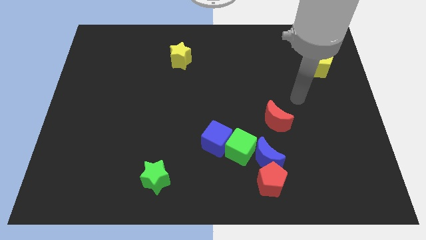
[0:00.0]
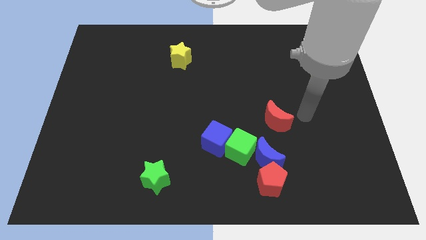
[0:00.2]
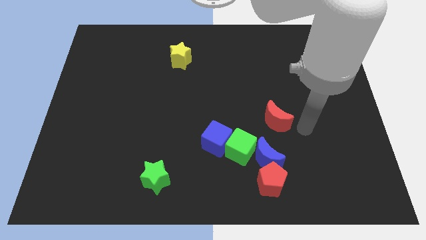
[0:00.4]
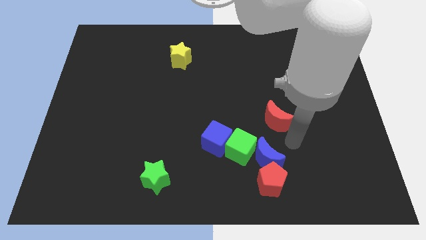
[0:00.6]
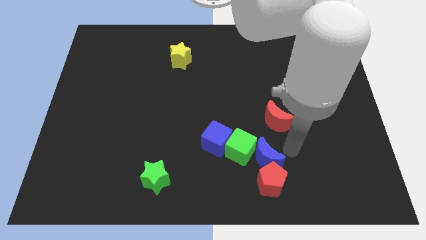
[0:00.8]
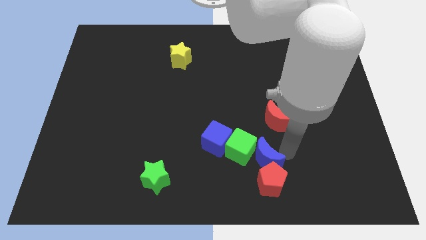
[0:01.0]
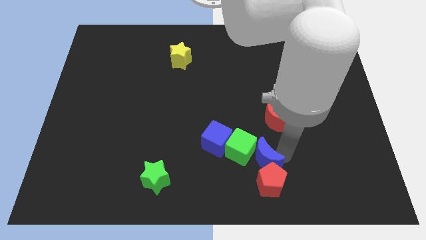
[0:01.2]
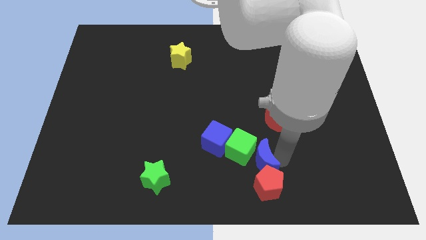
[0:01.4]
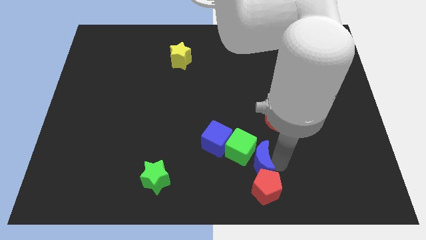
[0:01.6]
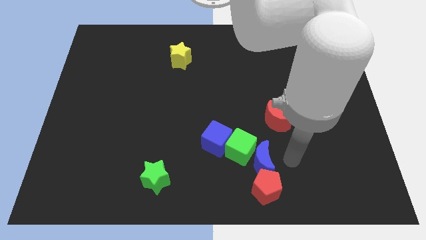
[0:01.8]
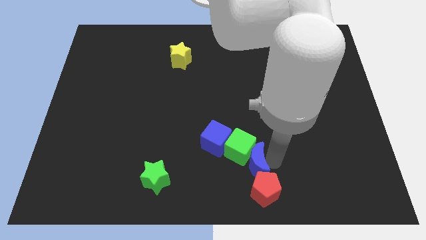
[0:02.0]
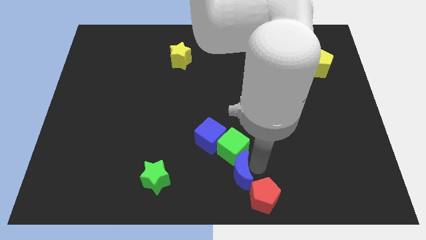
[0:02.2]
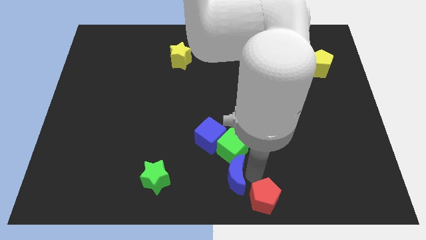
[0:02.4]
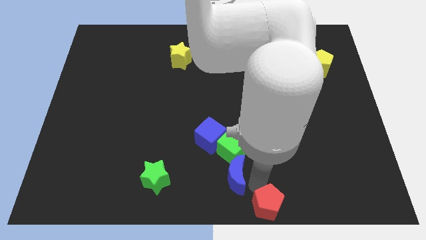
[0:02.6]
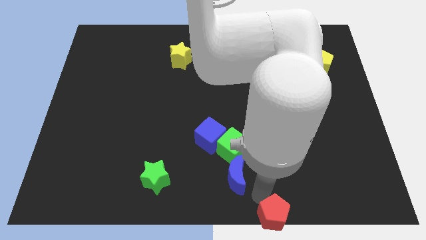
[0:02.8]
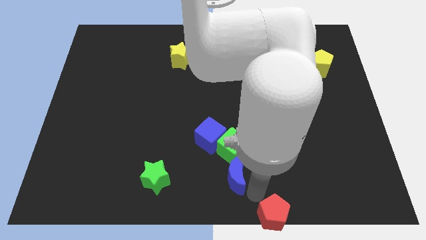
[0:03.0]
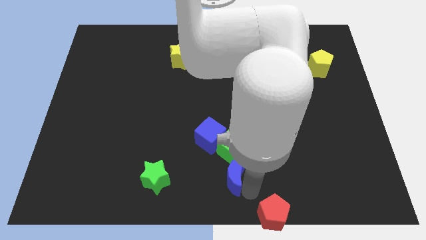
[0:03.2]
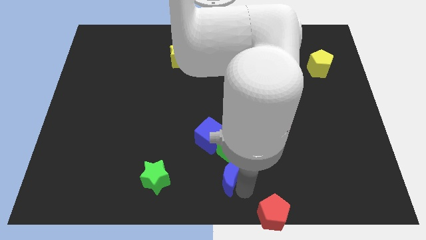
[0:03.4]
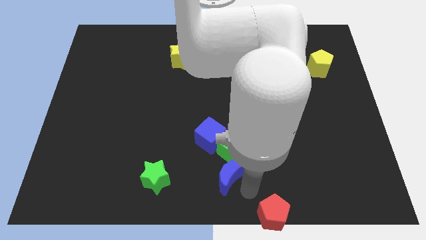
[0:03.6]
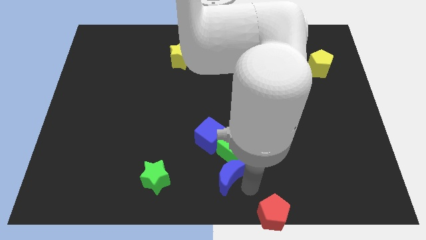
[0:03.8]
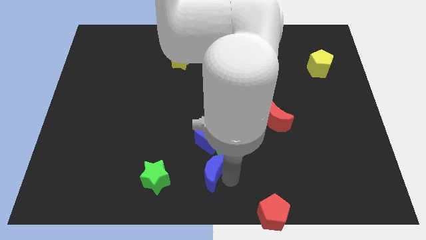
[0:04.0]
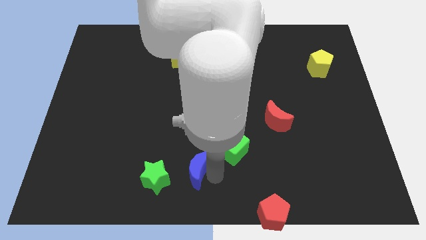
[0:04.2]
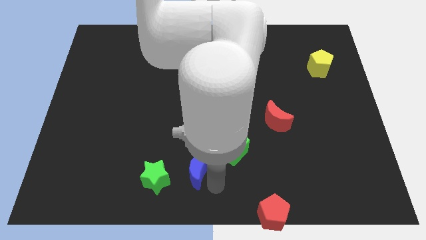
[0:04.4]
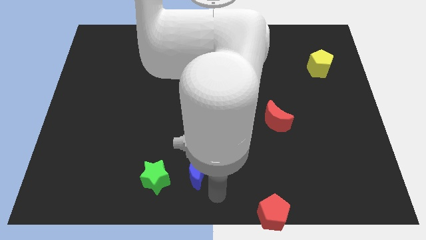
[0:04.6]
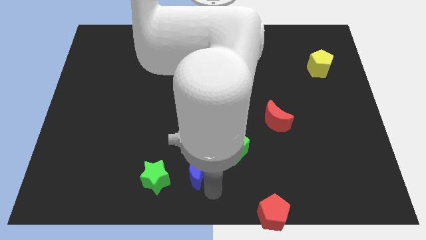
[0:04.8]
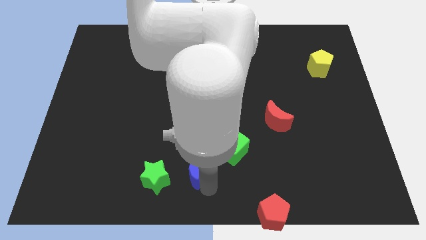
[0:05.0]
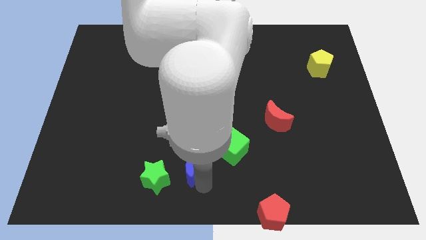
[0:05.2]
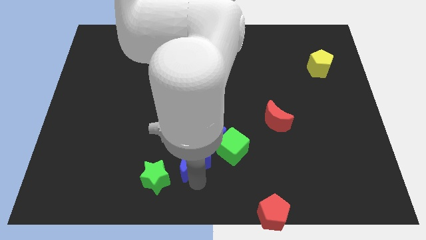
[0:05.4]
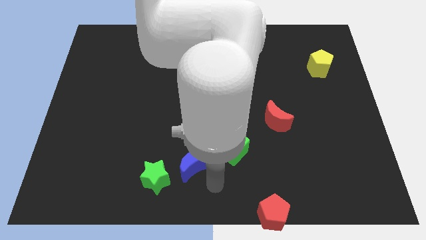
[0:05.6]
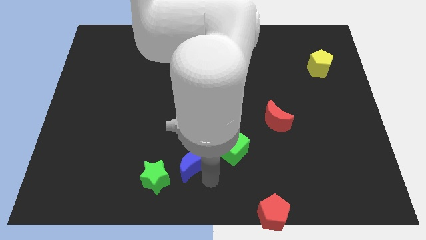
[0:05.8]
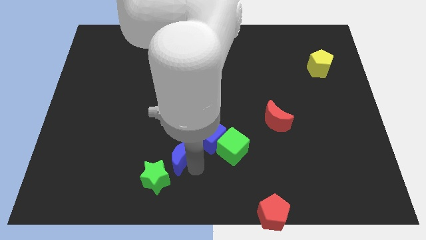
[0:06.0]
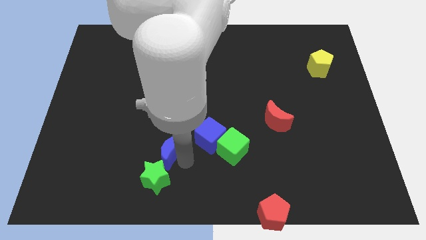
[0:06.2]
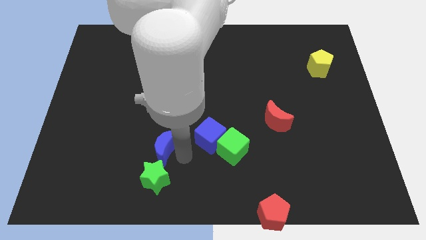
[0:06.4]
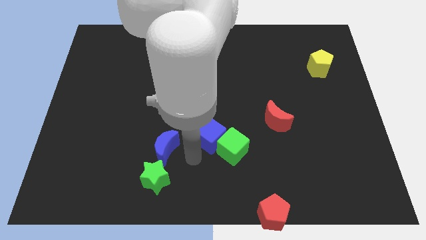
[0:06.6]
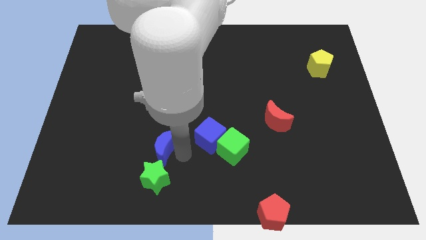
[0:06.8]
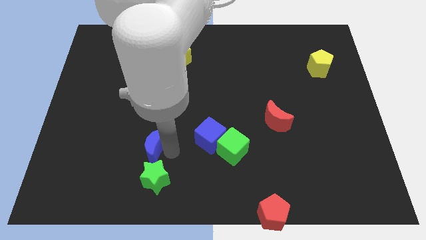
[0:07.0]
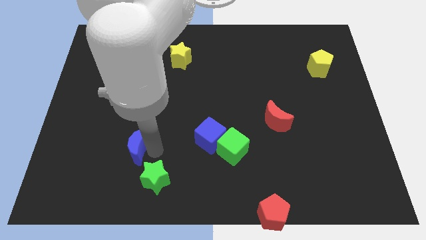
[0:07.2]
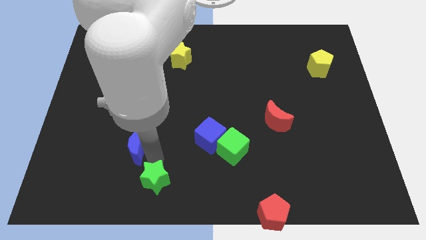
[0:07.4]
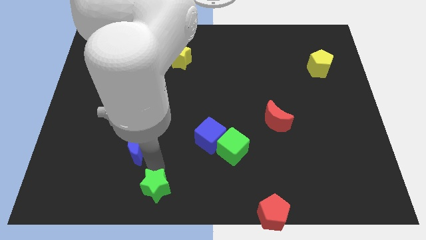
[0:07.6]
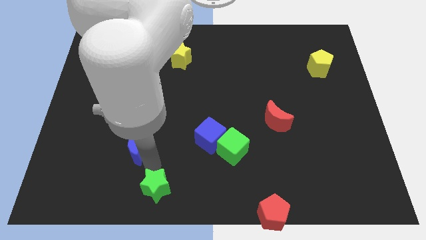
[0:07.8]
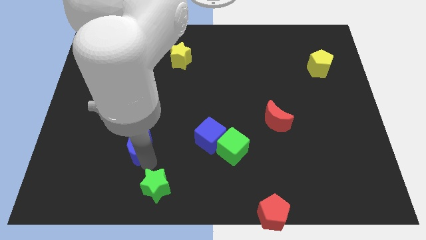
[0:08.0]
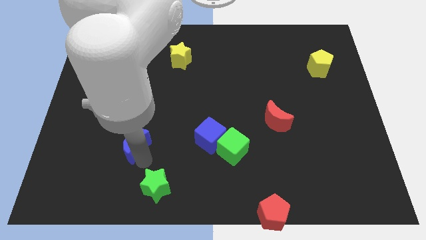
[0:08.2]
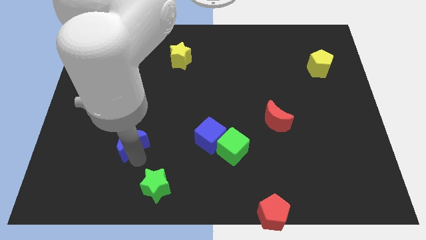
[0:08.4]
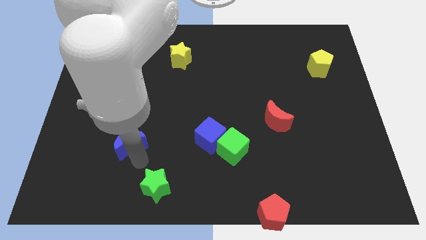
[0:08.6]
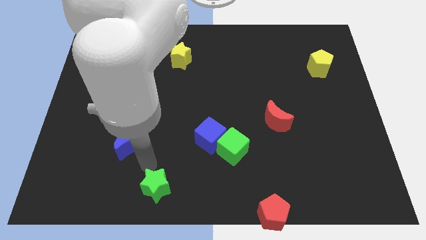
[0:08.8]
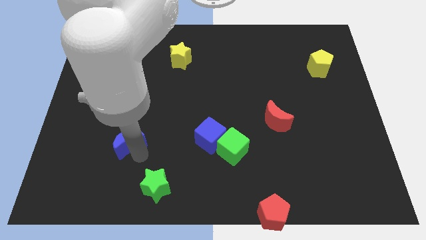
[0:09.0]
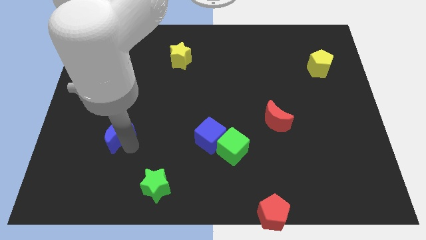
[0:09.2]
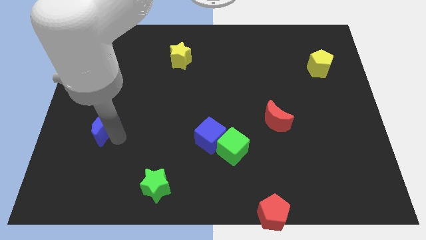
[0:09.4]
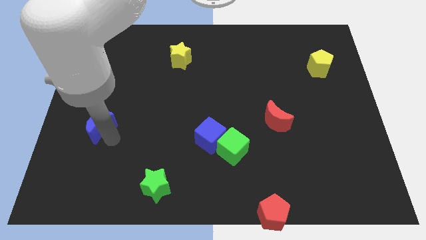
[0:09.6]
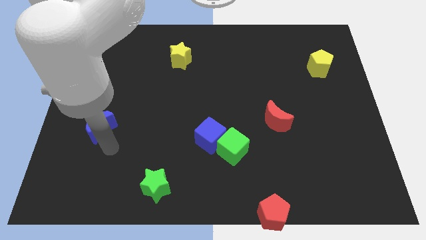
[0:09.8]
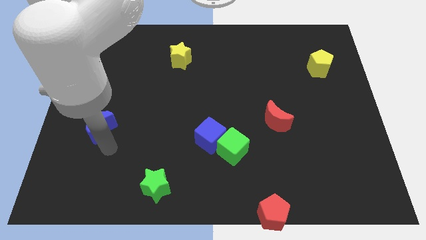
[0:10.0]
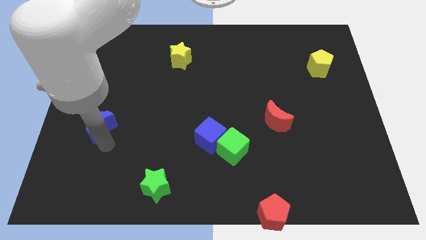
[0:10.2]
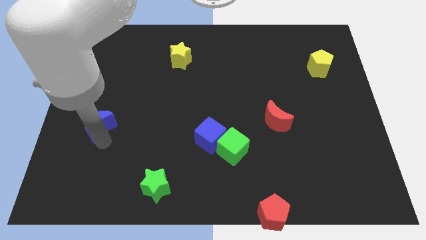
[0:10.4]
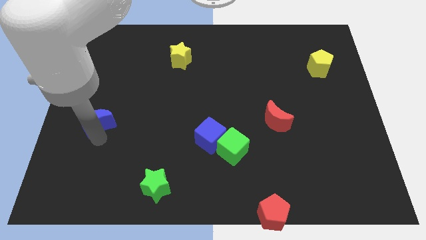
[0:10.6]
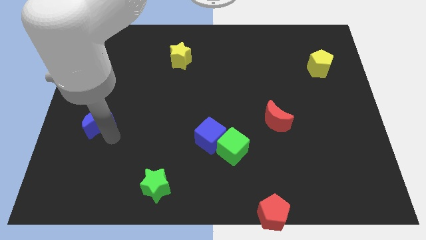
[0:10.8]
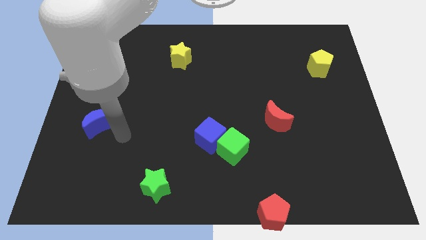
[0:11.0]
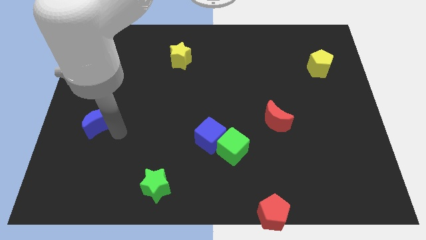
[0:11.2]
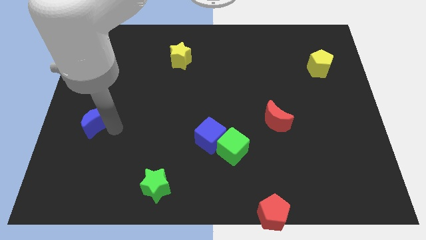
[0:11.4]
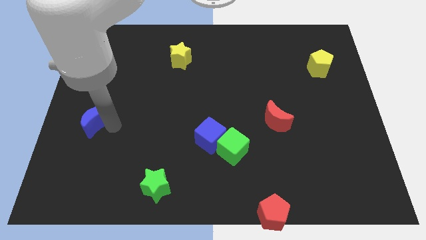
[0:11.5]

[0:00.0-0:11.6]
put the blue moon to the center left

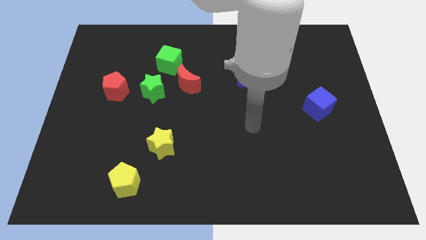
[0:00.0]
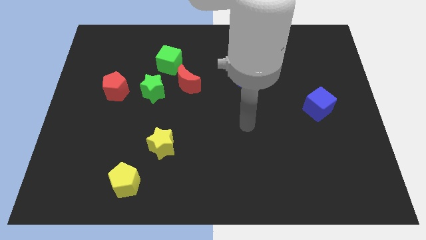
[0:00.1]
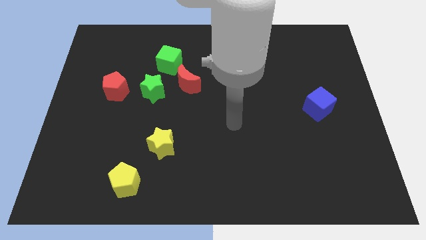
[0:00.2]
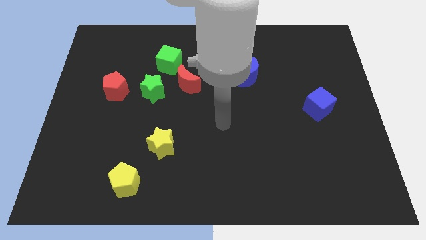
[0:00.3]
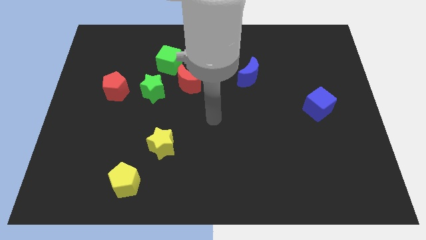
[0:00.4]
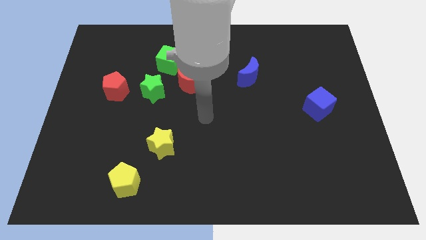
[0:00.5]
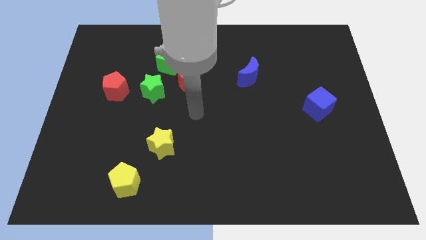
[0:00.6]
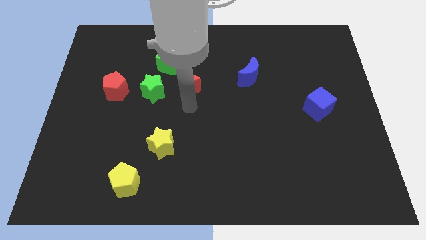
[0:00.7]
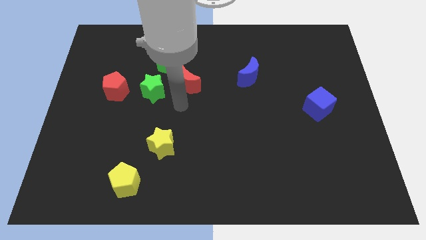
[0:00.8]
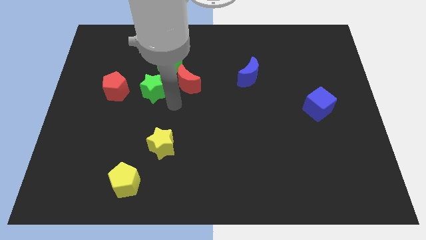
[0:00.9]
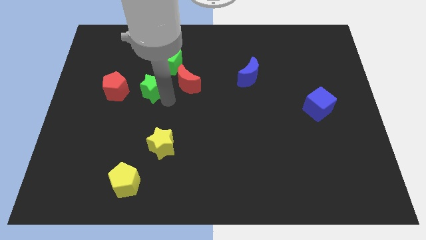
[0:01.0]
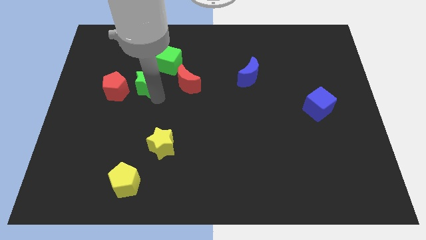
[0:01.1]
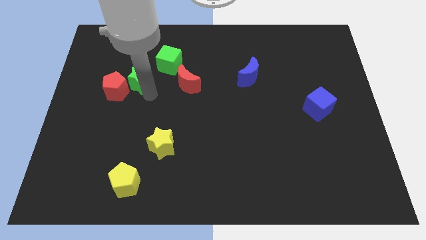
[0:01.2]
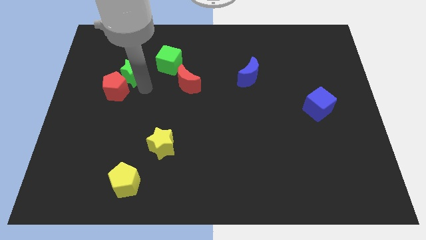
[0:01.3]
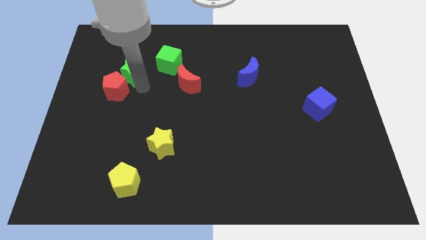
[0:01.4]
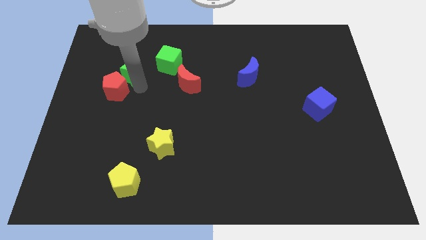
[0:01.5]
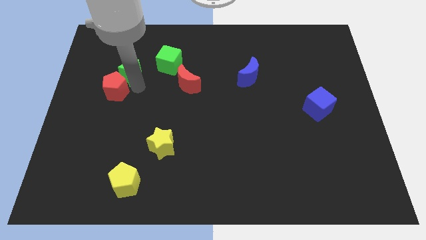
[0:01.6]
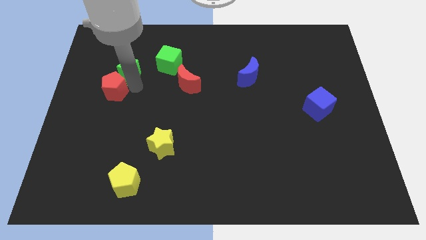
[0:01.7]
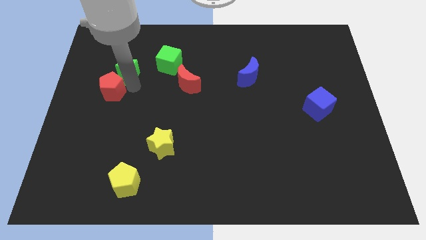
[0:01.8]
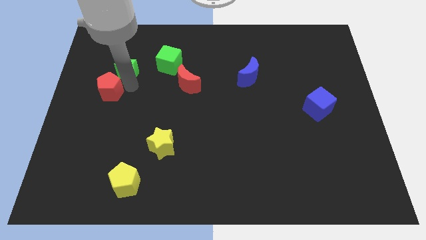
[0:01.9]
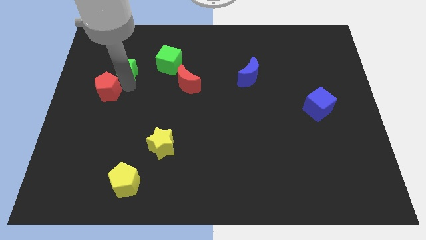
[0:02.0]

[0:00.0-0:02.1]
put the red pentagon to the center left
